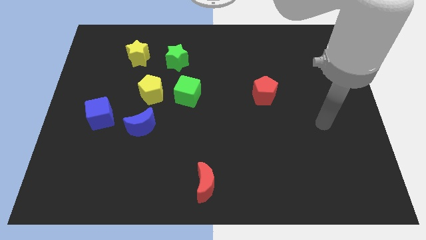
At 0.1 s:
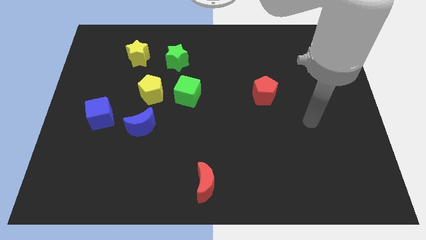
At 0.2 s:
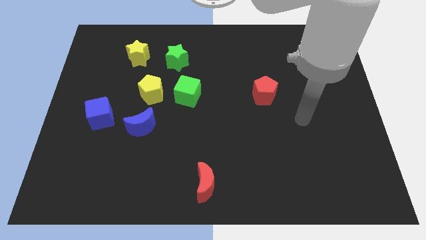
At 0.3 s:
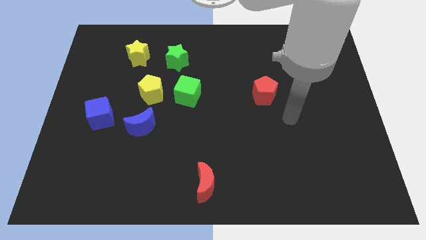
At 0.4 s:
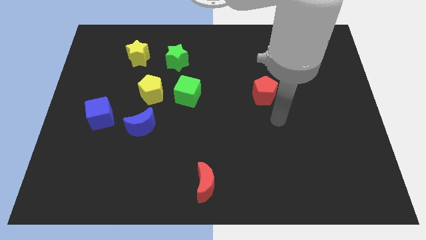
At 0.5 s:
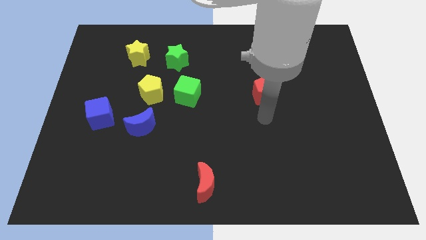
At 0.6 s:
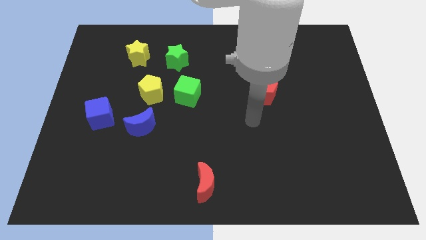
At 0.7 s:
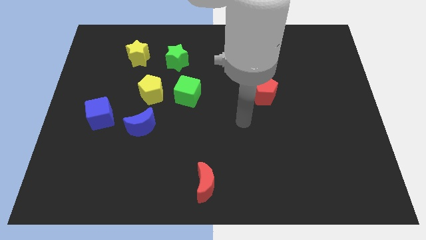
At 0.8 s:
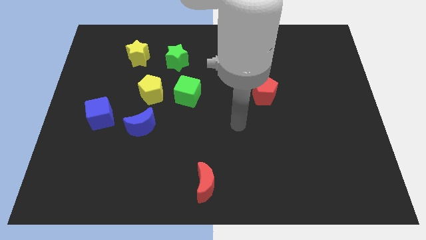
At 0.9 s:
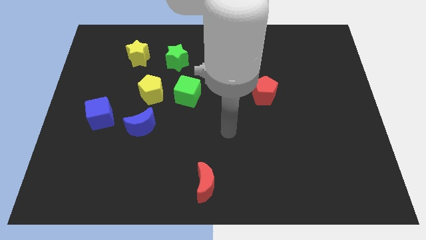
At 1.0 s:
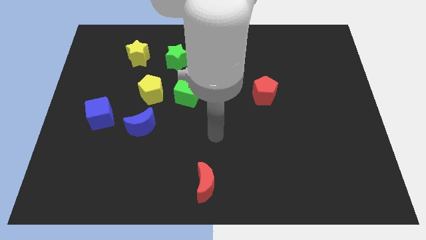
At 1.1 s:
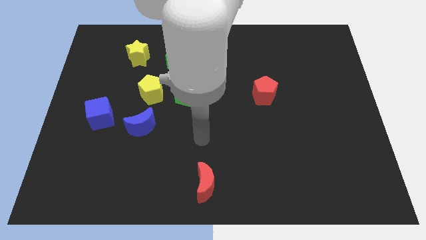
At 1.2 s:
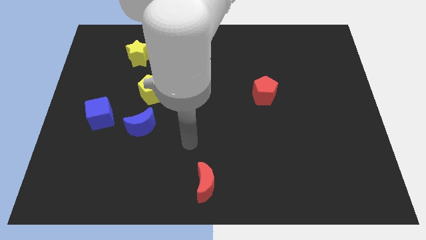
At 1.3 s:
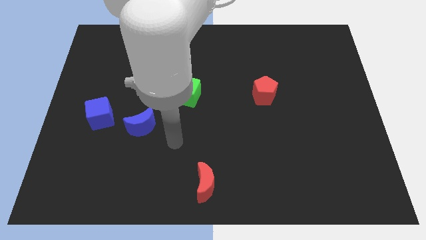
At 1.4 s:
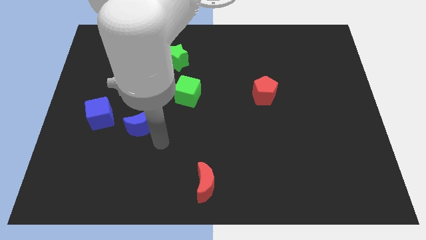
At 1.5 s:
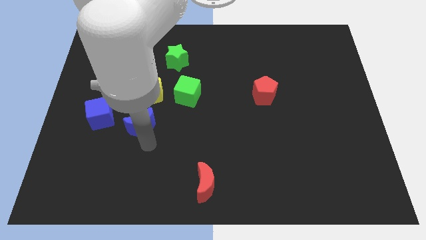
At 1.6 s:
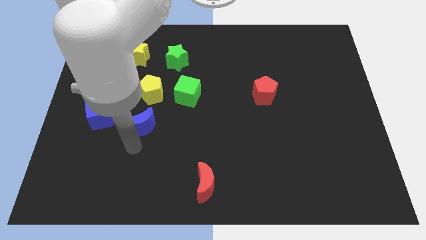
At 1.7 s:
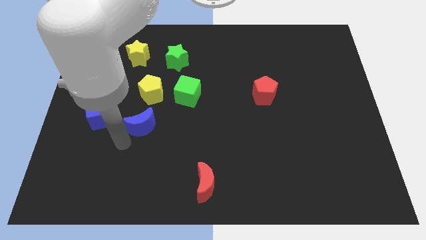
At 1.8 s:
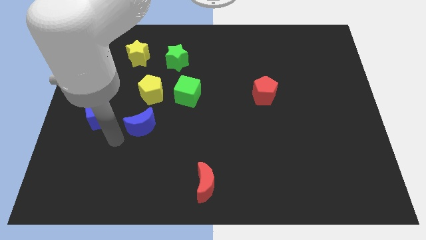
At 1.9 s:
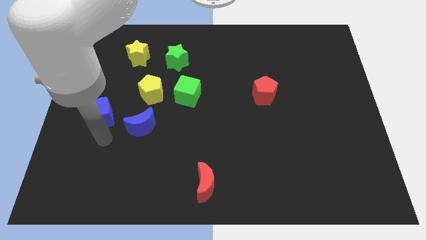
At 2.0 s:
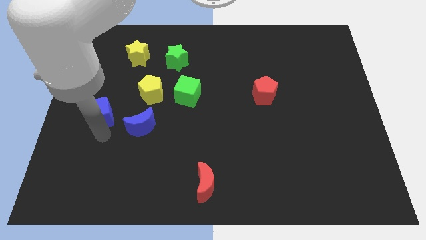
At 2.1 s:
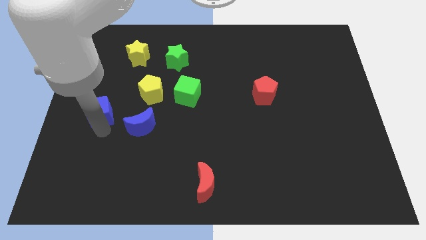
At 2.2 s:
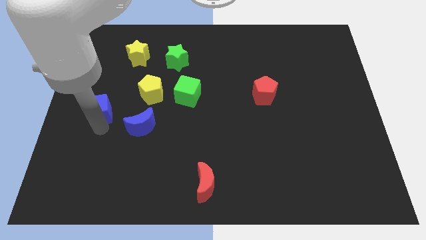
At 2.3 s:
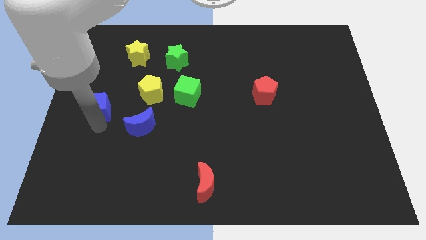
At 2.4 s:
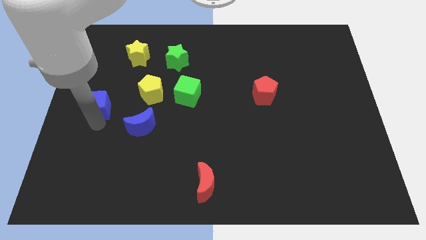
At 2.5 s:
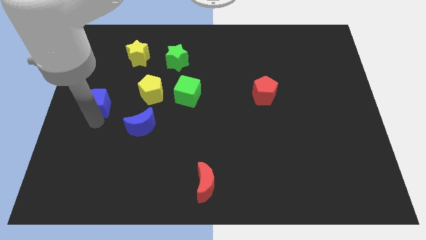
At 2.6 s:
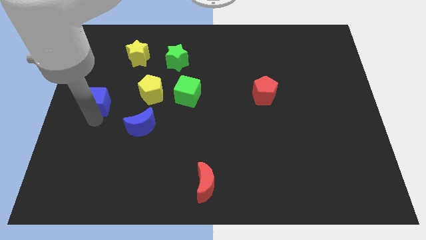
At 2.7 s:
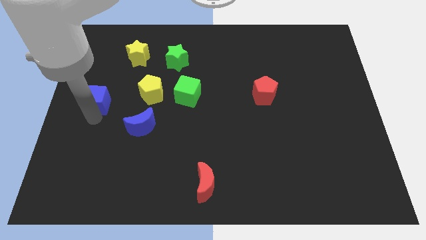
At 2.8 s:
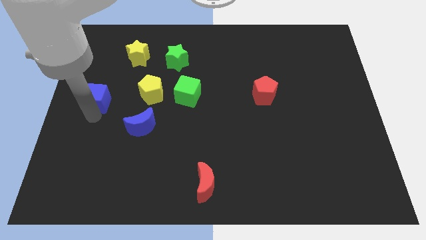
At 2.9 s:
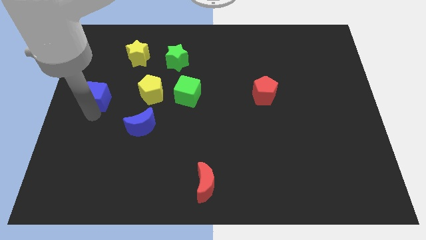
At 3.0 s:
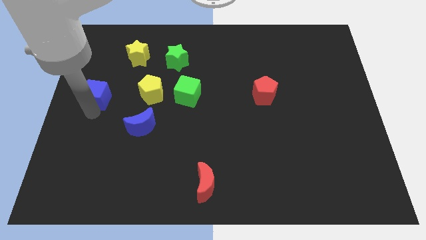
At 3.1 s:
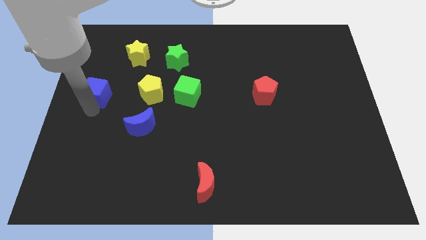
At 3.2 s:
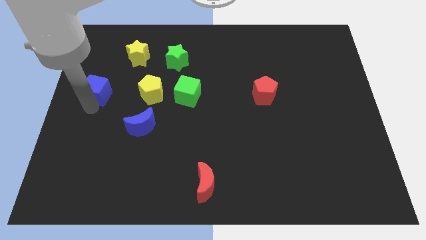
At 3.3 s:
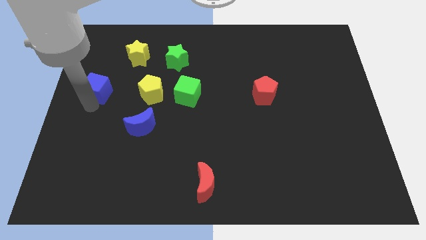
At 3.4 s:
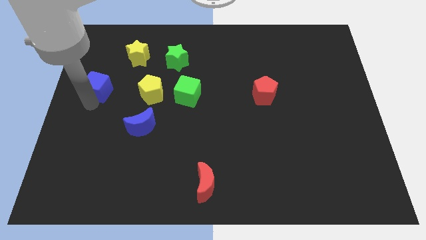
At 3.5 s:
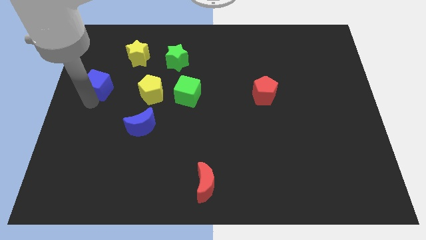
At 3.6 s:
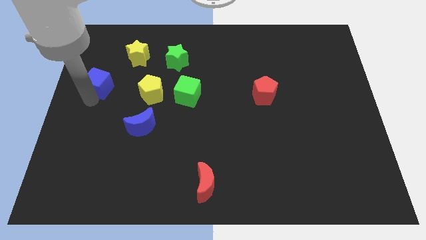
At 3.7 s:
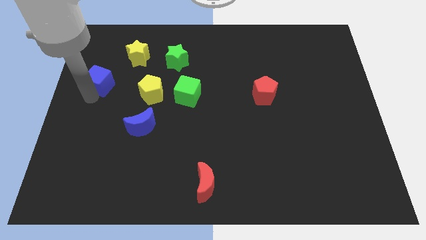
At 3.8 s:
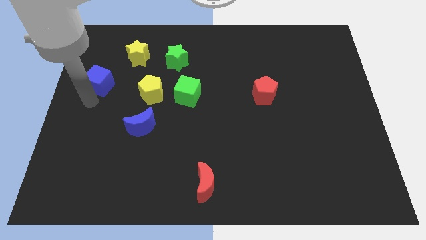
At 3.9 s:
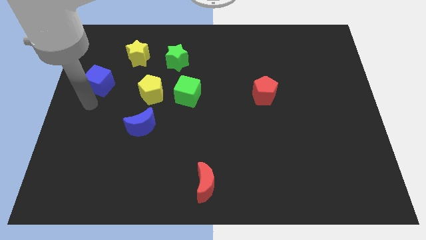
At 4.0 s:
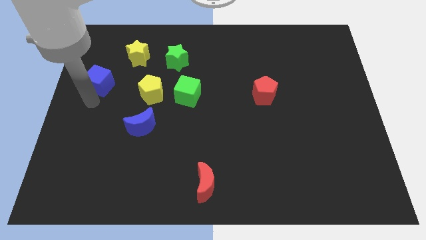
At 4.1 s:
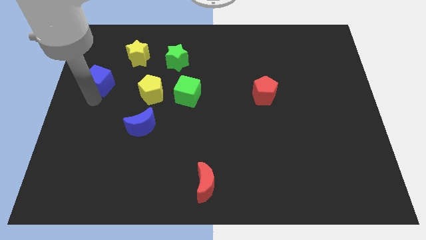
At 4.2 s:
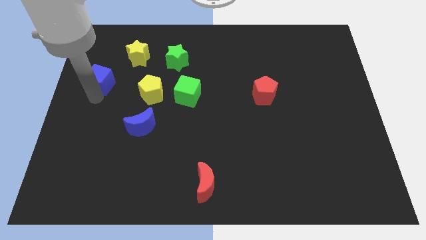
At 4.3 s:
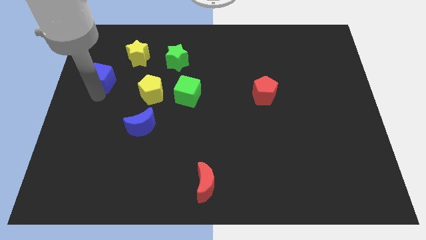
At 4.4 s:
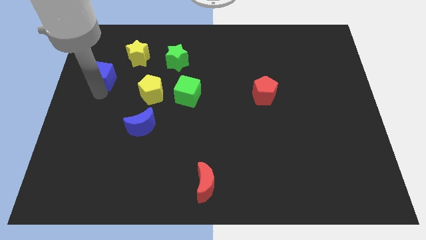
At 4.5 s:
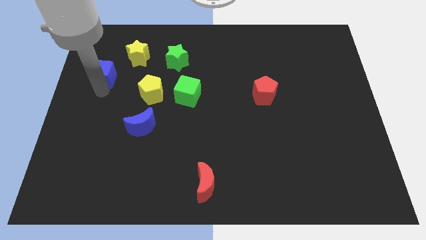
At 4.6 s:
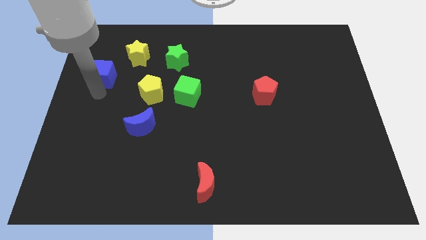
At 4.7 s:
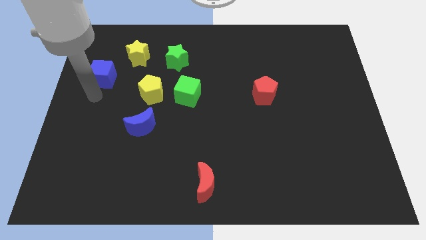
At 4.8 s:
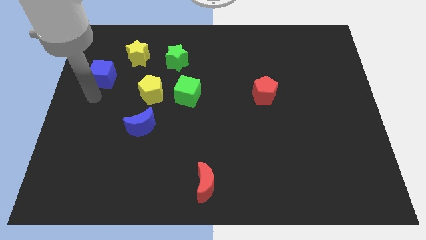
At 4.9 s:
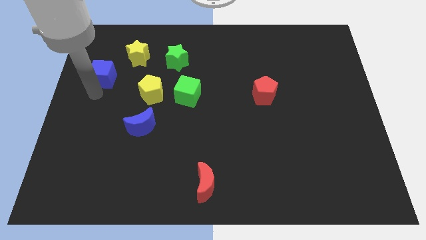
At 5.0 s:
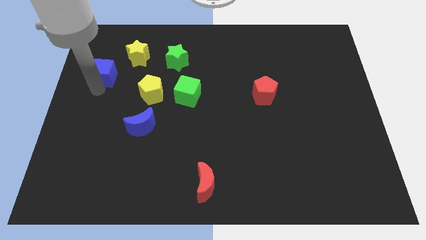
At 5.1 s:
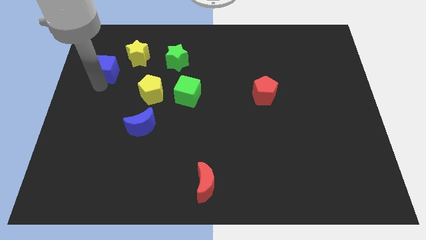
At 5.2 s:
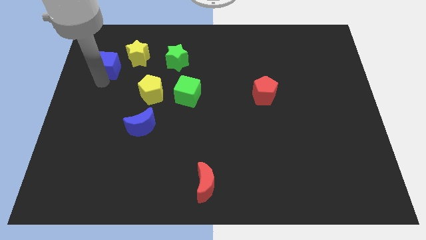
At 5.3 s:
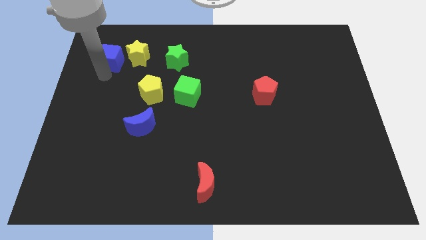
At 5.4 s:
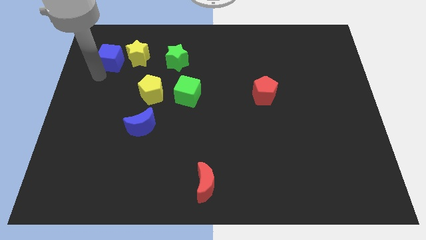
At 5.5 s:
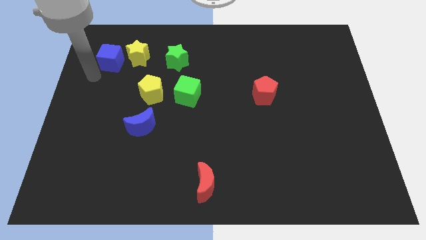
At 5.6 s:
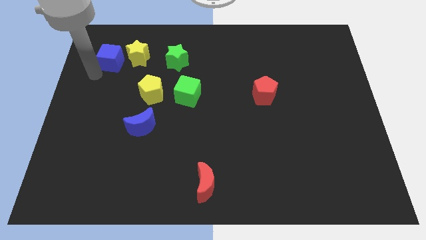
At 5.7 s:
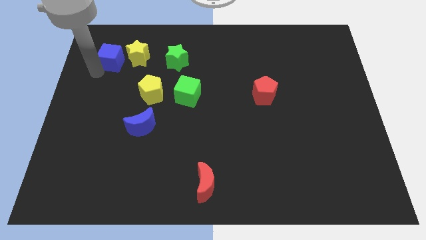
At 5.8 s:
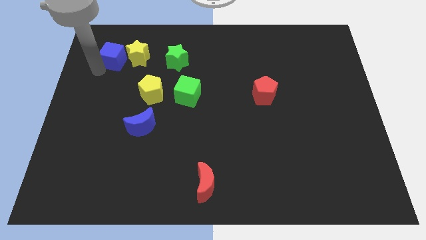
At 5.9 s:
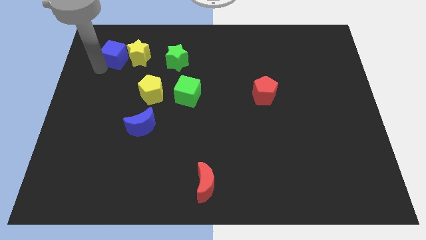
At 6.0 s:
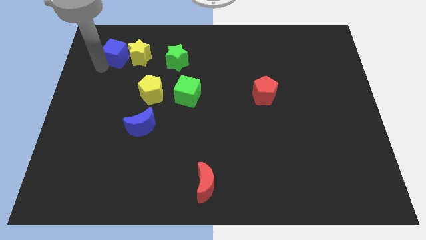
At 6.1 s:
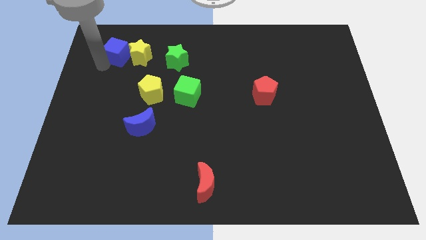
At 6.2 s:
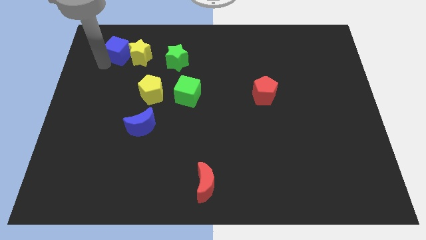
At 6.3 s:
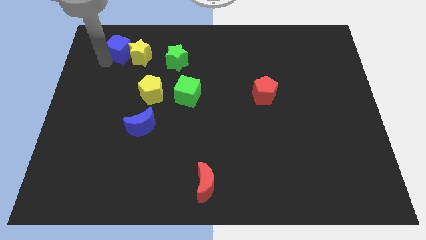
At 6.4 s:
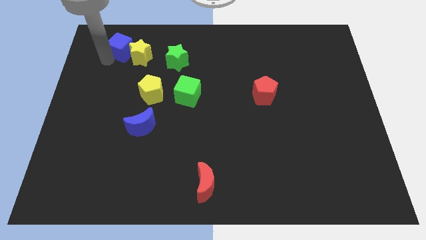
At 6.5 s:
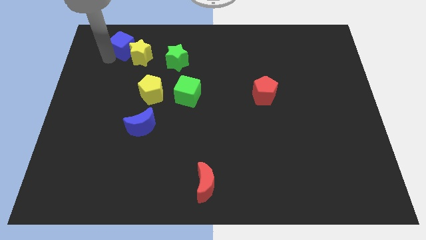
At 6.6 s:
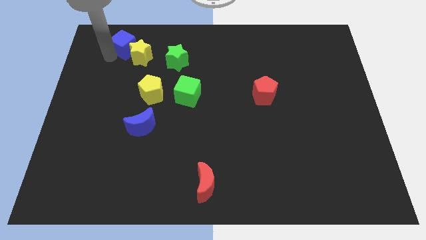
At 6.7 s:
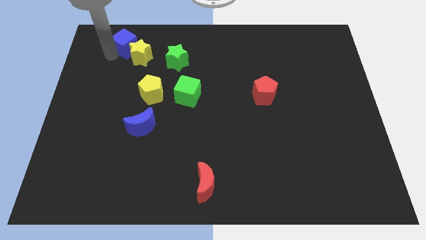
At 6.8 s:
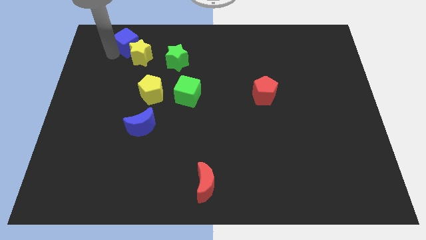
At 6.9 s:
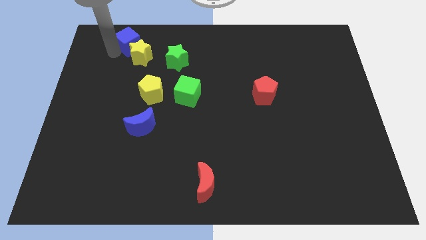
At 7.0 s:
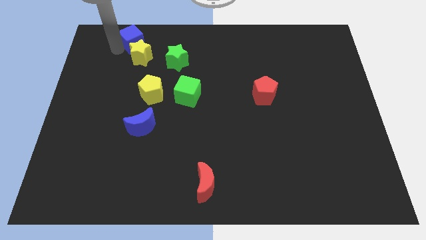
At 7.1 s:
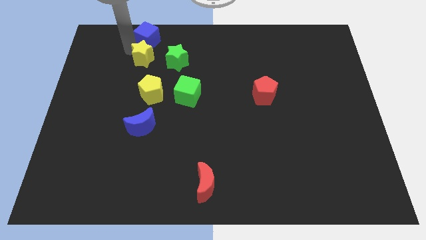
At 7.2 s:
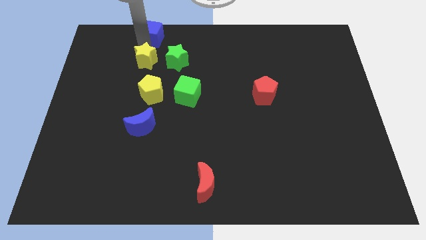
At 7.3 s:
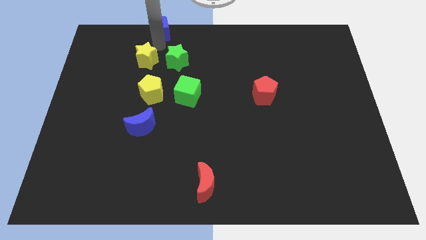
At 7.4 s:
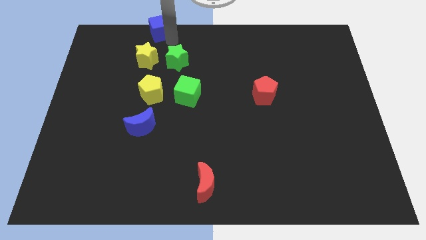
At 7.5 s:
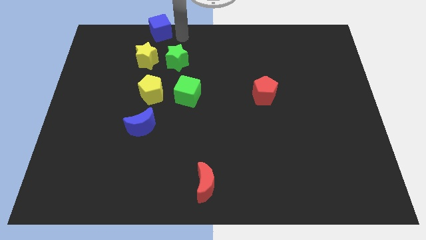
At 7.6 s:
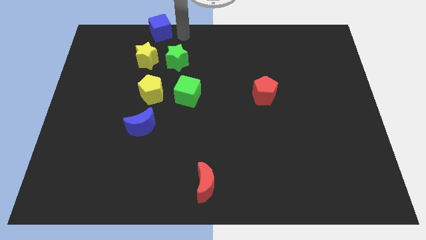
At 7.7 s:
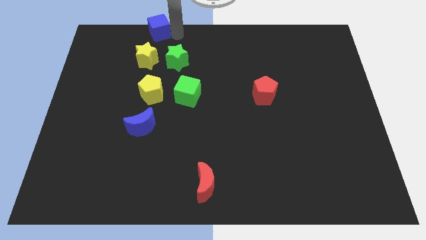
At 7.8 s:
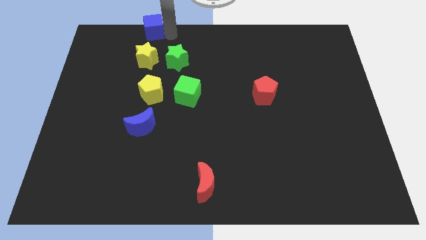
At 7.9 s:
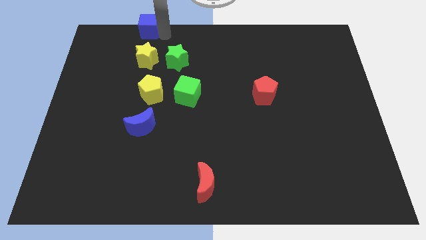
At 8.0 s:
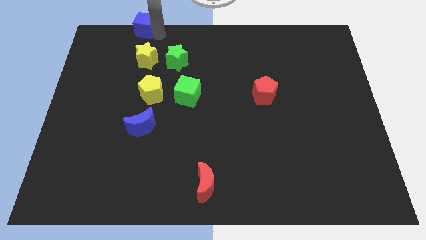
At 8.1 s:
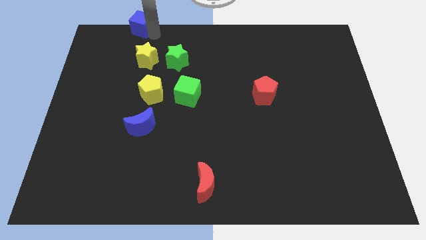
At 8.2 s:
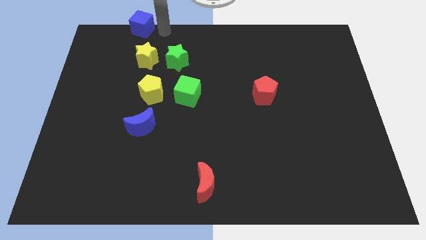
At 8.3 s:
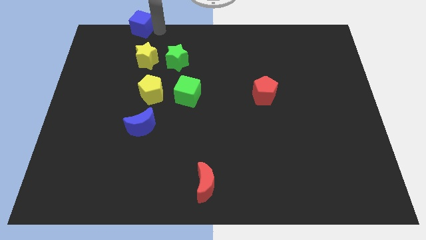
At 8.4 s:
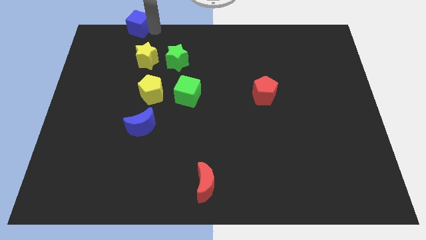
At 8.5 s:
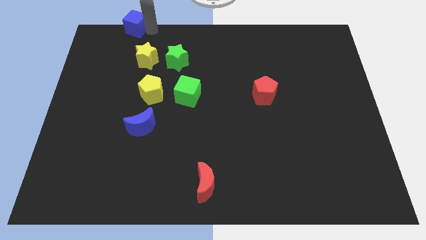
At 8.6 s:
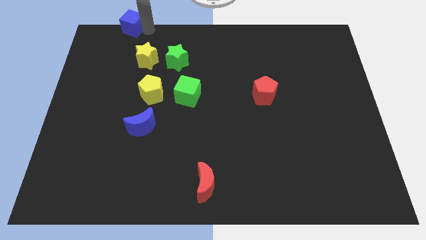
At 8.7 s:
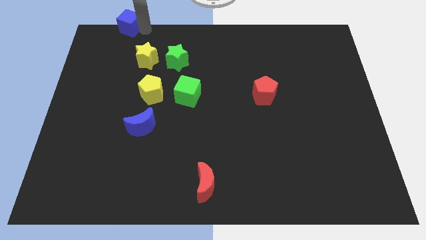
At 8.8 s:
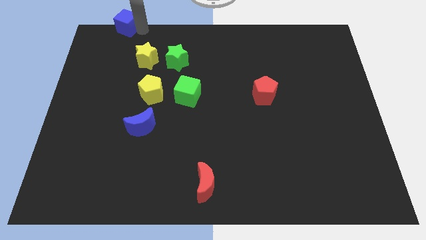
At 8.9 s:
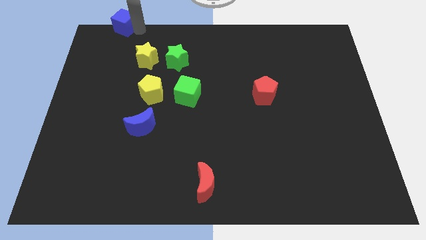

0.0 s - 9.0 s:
push the blue cube to the top left
